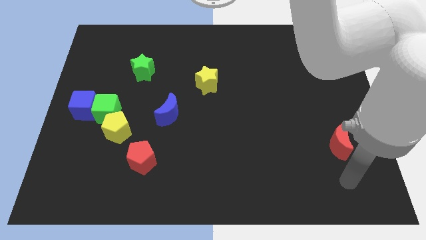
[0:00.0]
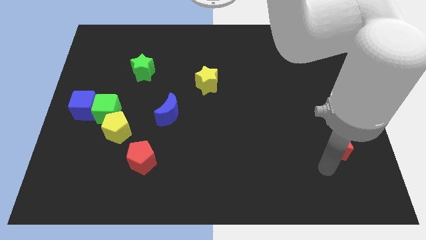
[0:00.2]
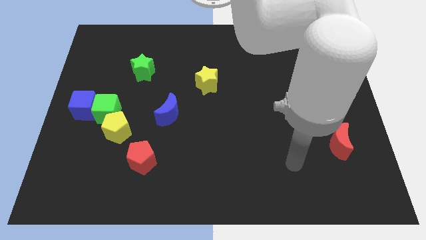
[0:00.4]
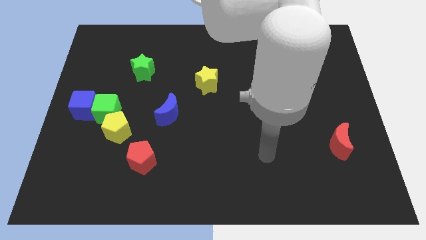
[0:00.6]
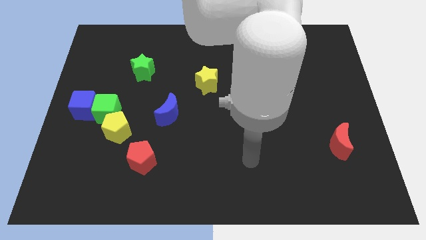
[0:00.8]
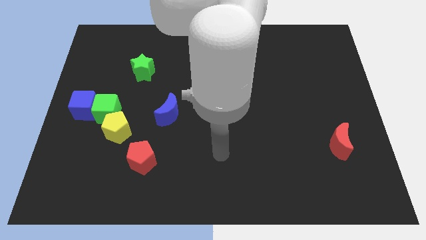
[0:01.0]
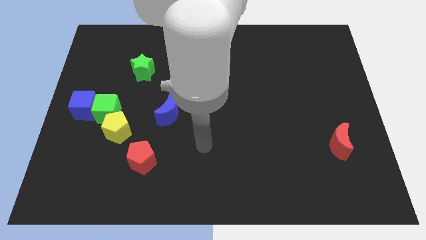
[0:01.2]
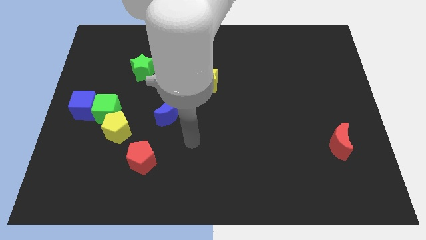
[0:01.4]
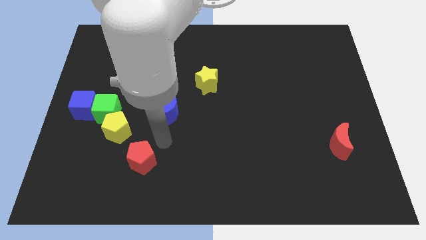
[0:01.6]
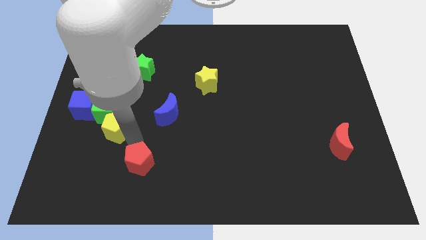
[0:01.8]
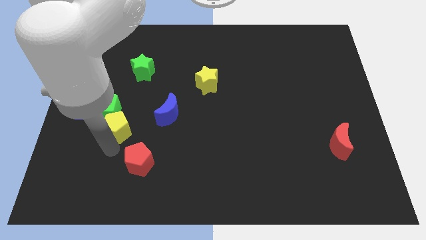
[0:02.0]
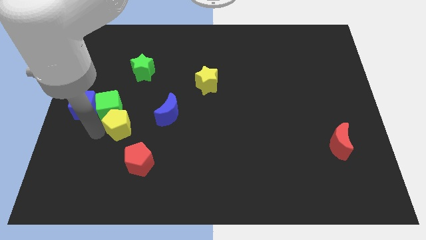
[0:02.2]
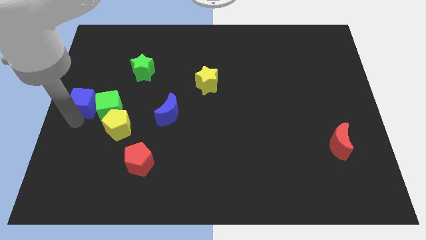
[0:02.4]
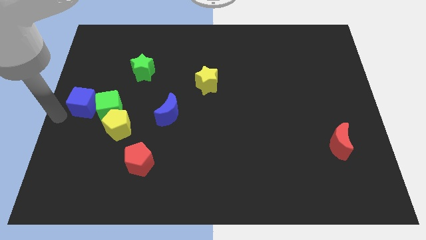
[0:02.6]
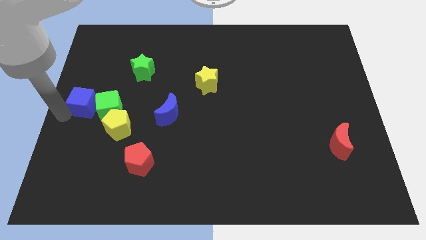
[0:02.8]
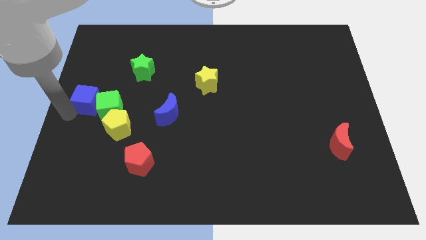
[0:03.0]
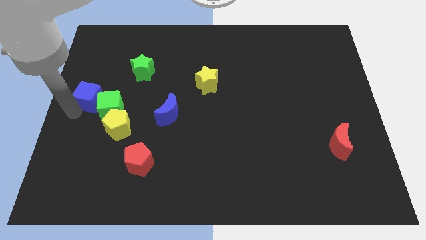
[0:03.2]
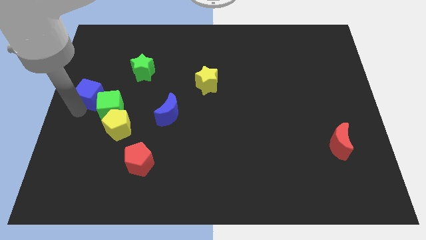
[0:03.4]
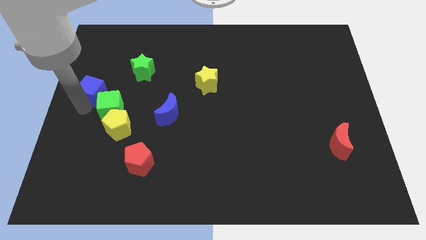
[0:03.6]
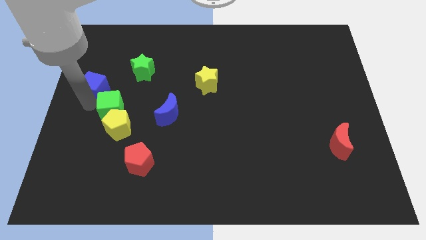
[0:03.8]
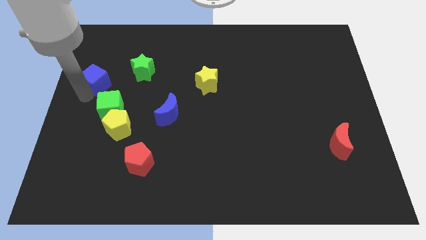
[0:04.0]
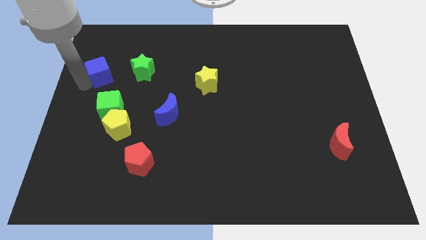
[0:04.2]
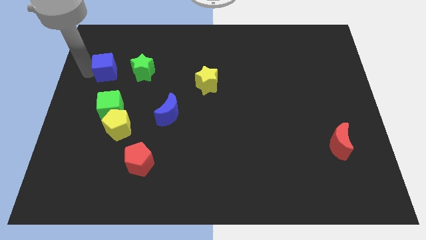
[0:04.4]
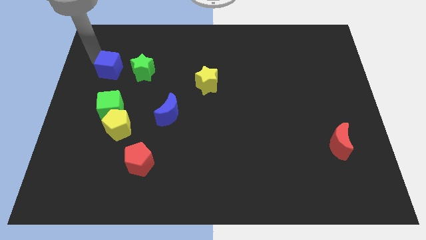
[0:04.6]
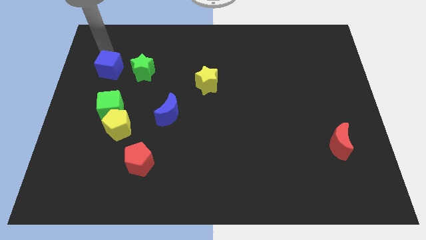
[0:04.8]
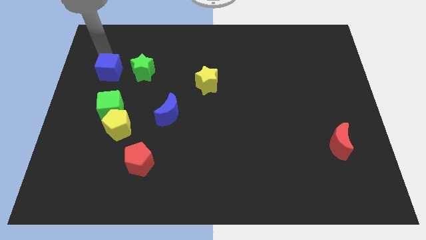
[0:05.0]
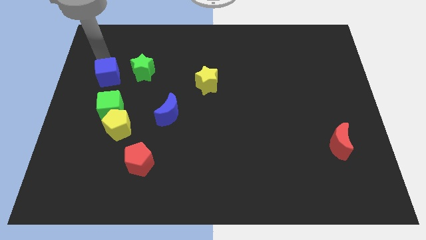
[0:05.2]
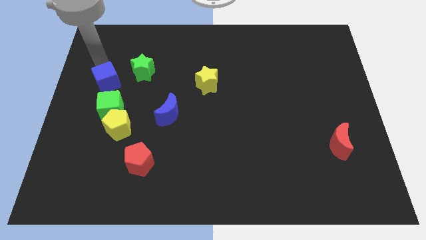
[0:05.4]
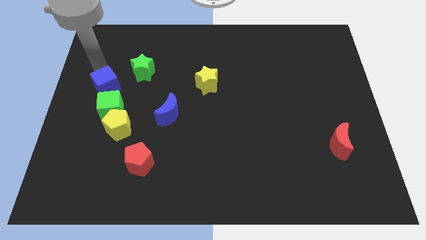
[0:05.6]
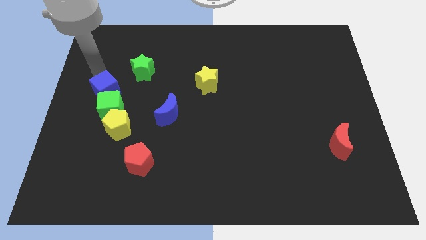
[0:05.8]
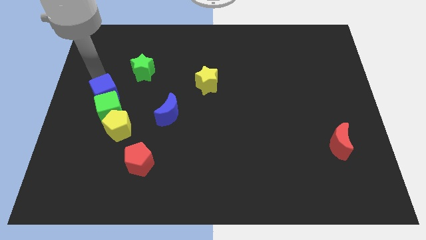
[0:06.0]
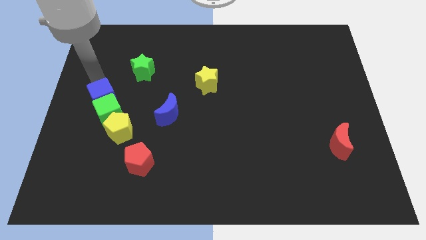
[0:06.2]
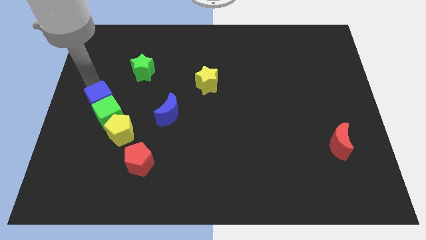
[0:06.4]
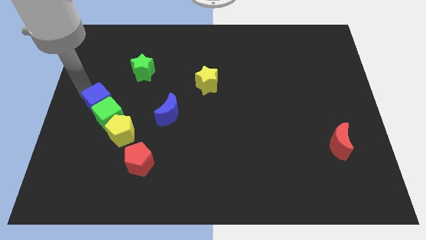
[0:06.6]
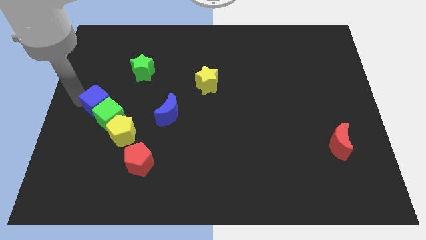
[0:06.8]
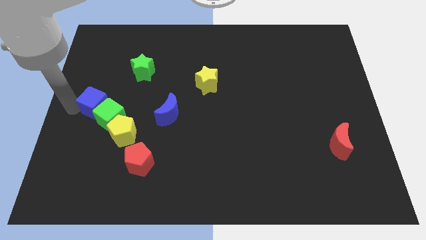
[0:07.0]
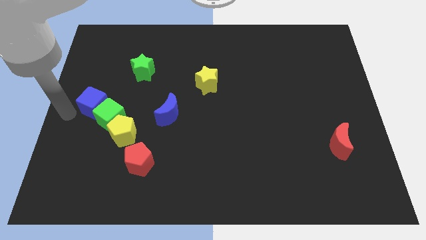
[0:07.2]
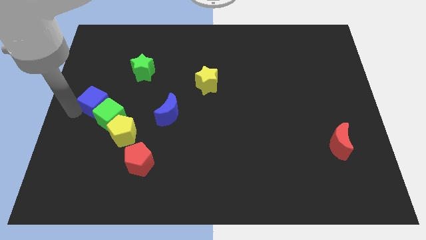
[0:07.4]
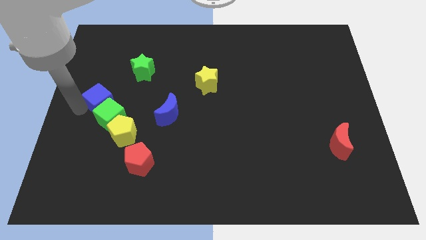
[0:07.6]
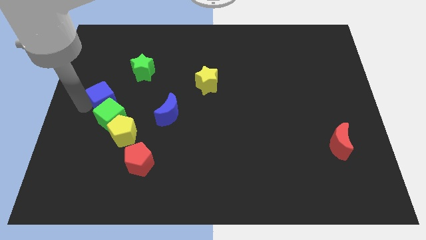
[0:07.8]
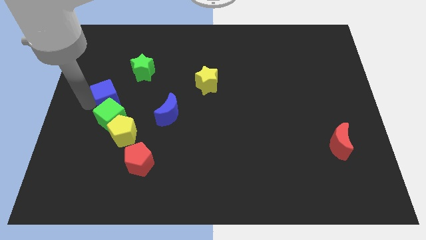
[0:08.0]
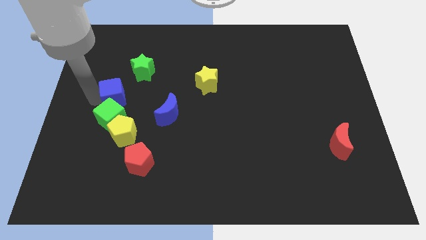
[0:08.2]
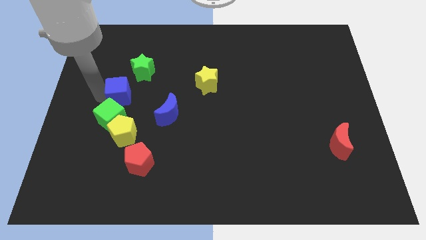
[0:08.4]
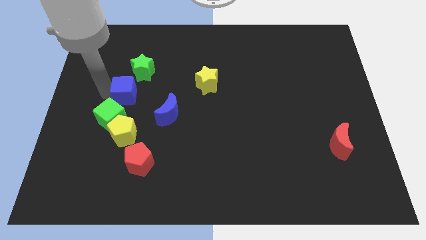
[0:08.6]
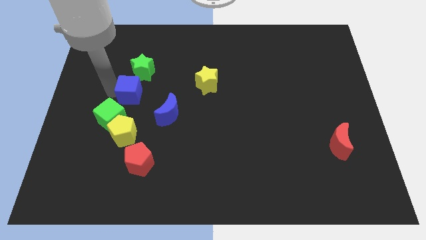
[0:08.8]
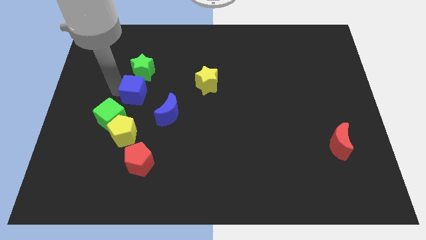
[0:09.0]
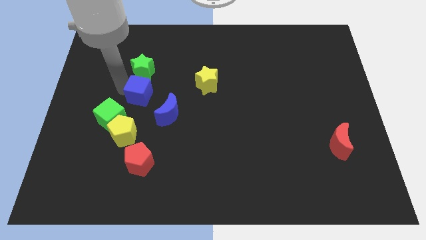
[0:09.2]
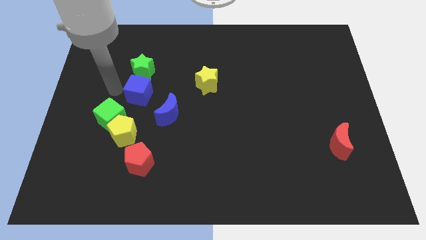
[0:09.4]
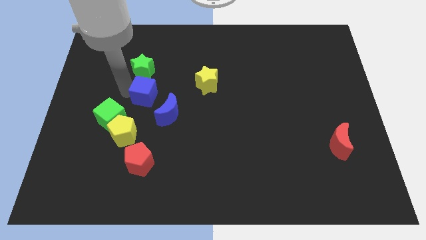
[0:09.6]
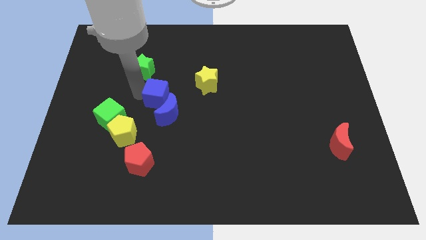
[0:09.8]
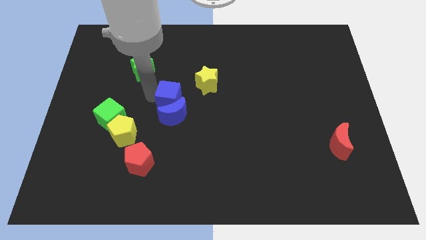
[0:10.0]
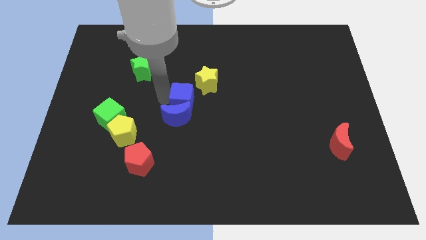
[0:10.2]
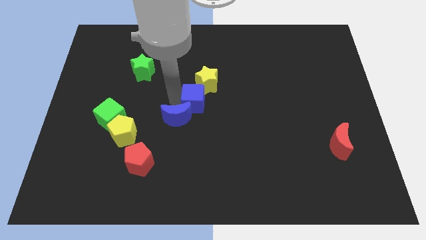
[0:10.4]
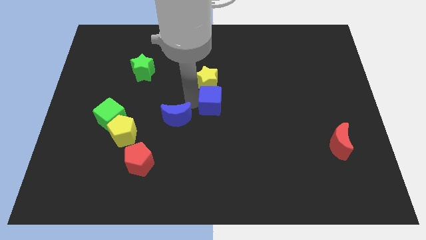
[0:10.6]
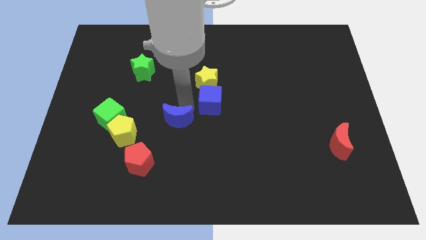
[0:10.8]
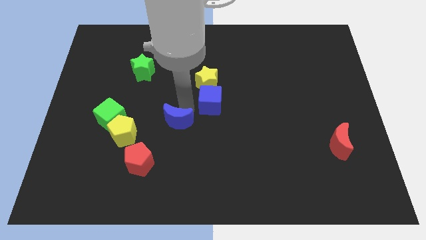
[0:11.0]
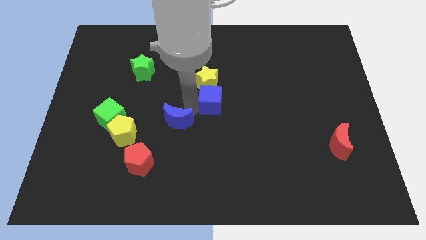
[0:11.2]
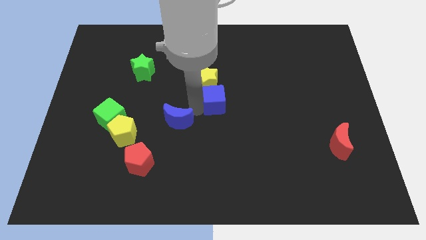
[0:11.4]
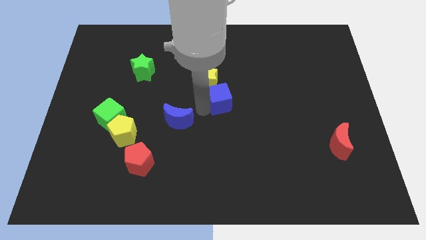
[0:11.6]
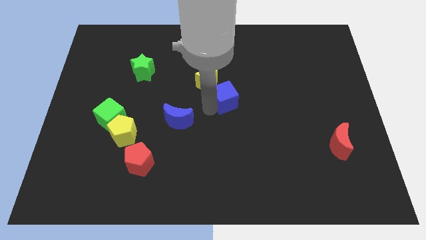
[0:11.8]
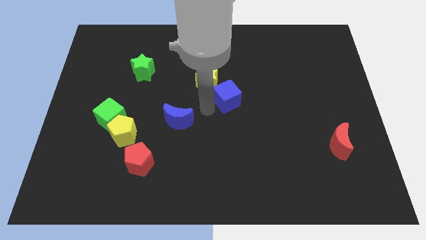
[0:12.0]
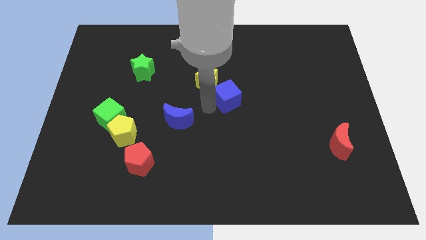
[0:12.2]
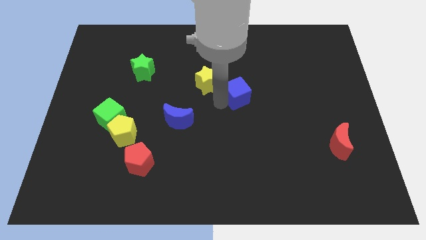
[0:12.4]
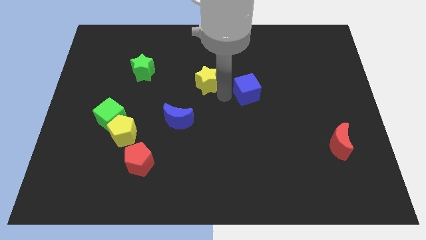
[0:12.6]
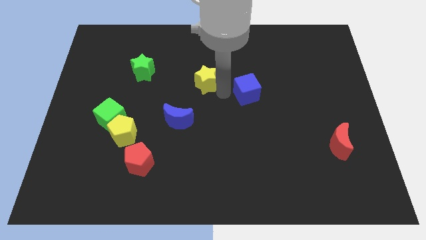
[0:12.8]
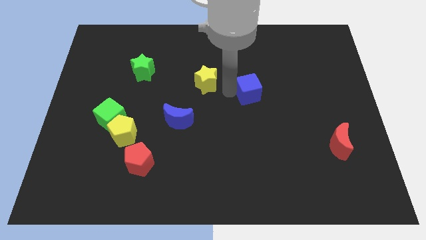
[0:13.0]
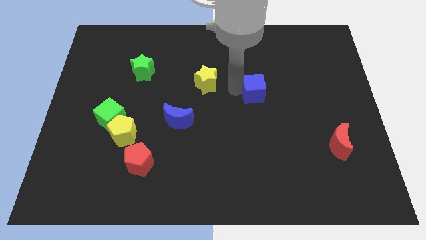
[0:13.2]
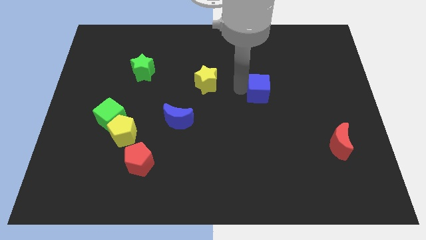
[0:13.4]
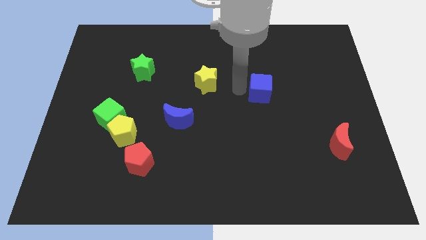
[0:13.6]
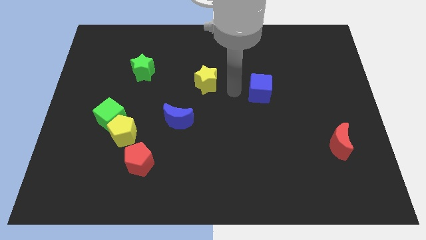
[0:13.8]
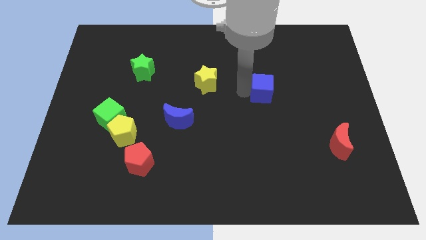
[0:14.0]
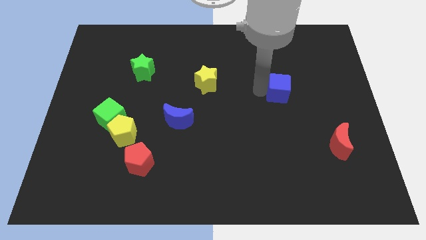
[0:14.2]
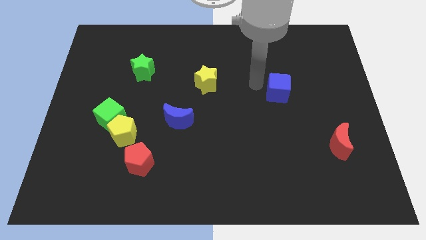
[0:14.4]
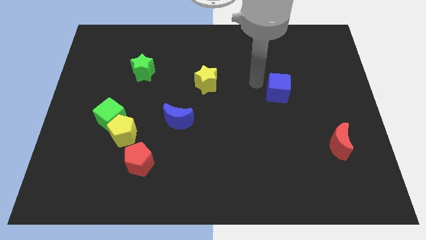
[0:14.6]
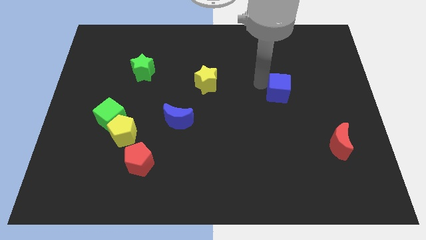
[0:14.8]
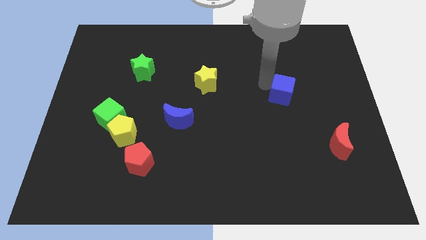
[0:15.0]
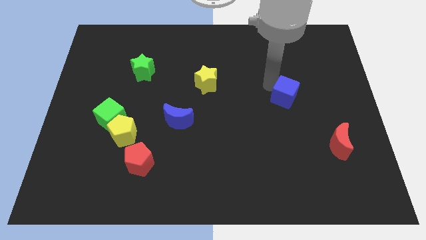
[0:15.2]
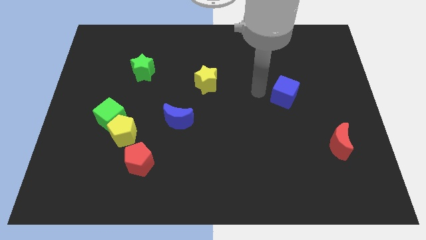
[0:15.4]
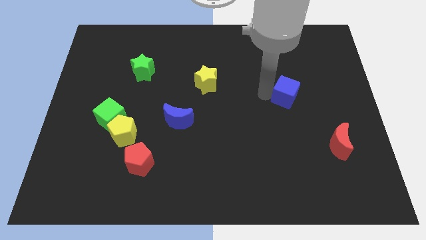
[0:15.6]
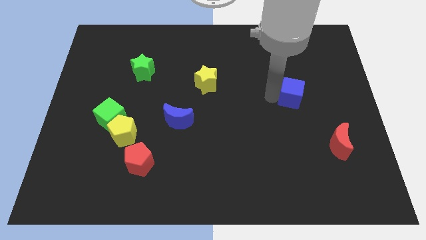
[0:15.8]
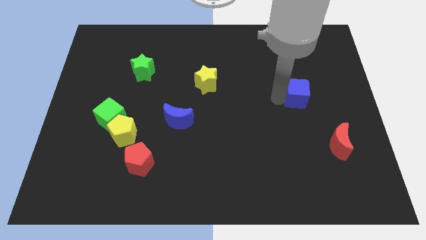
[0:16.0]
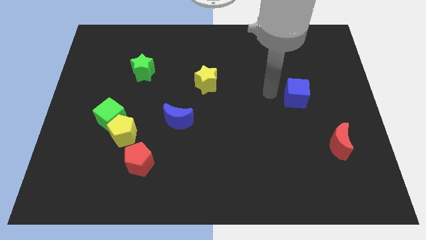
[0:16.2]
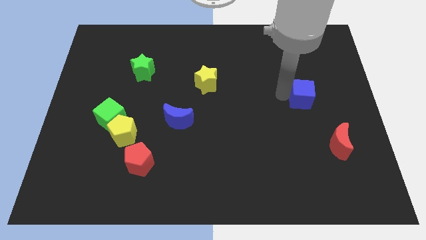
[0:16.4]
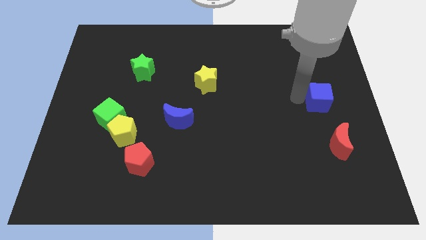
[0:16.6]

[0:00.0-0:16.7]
put the blue cube to the right side
